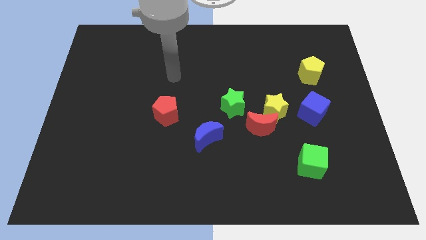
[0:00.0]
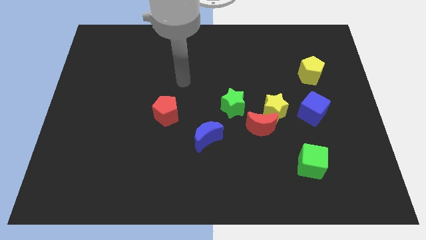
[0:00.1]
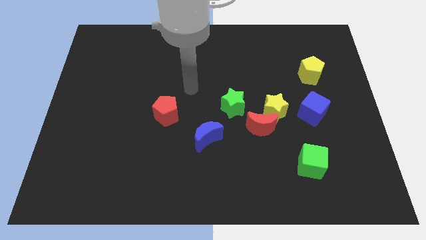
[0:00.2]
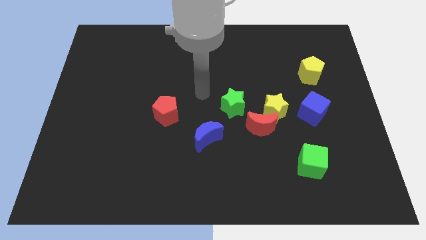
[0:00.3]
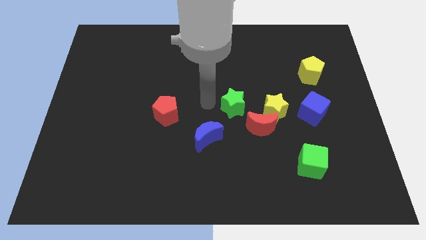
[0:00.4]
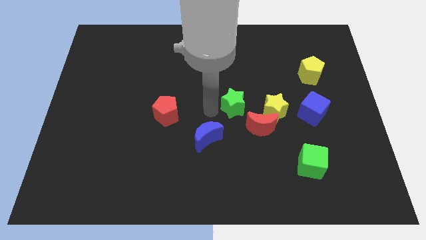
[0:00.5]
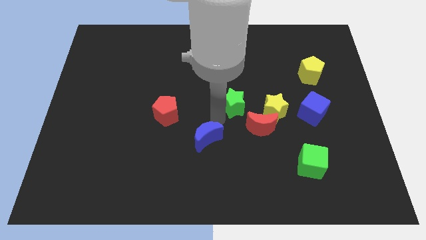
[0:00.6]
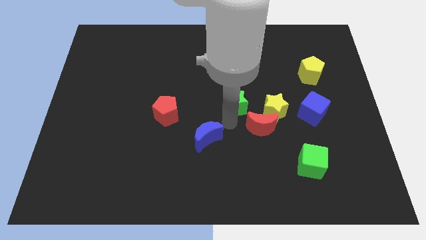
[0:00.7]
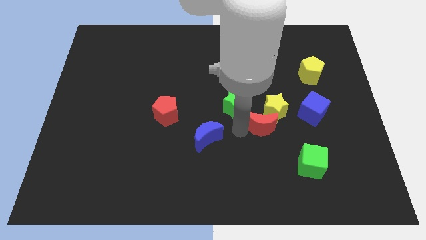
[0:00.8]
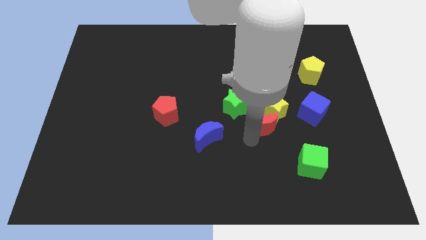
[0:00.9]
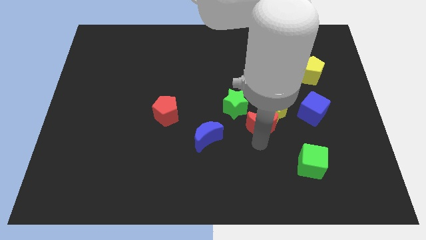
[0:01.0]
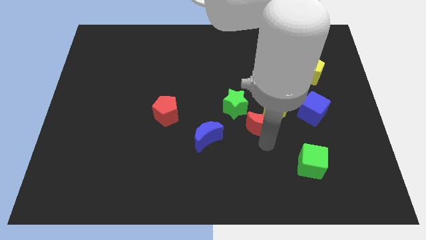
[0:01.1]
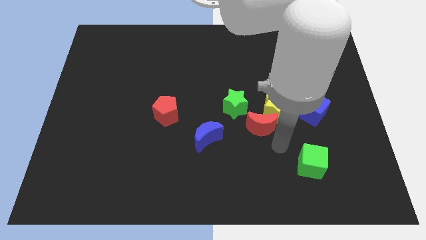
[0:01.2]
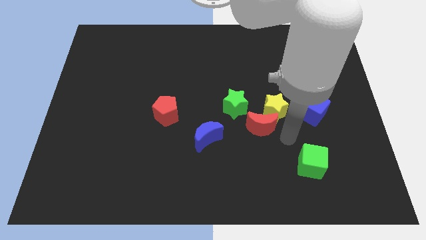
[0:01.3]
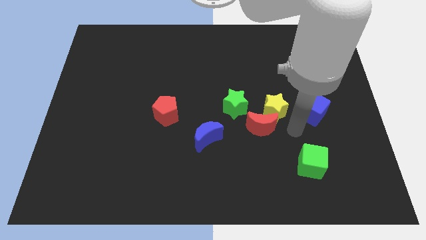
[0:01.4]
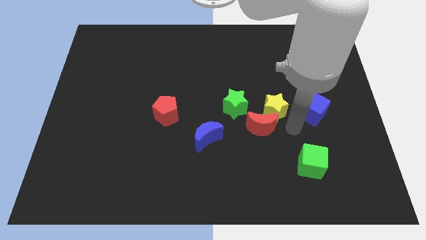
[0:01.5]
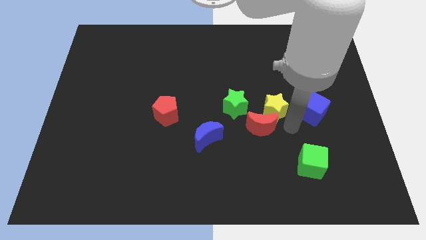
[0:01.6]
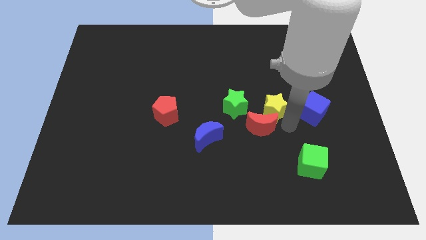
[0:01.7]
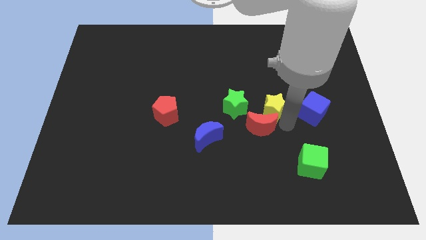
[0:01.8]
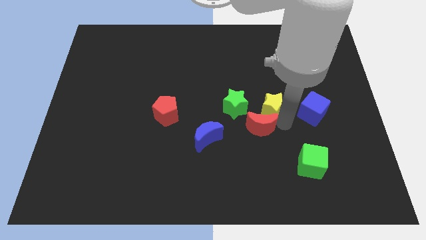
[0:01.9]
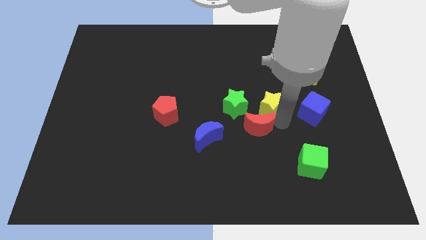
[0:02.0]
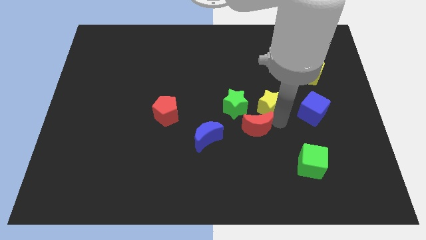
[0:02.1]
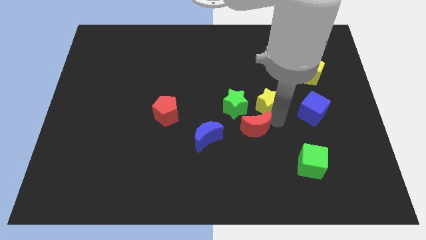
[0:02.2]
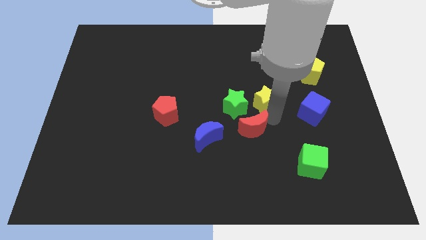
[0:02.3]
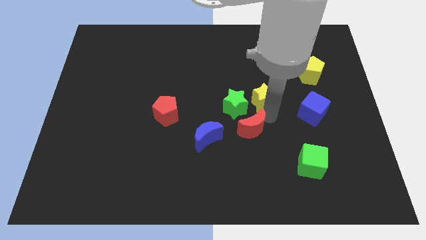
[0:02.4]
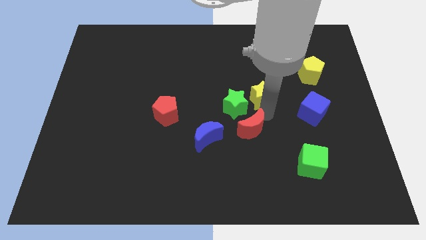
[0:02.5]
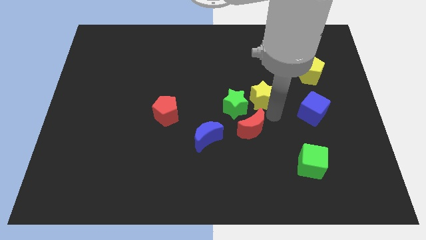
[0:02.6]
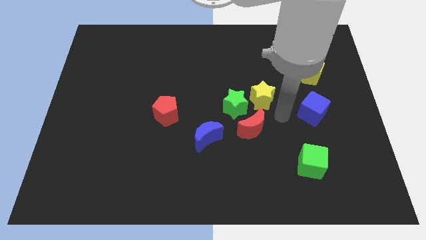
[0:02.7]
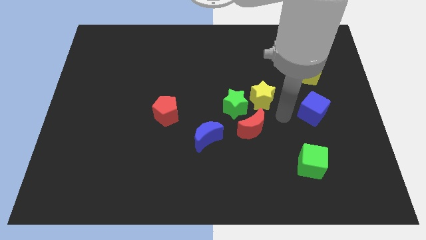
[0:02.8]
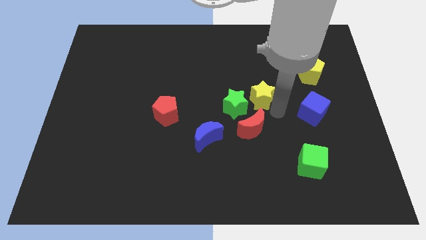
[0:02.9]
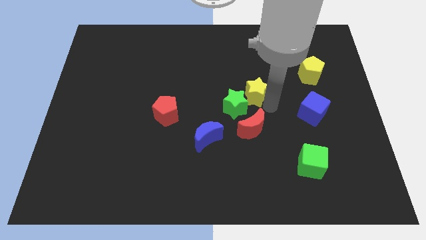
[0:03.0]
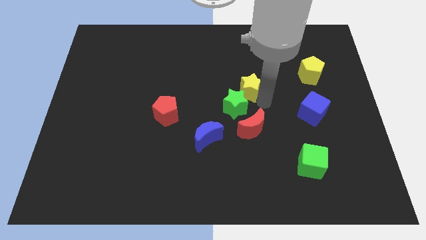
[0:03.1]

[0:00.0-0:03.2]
slide the yellow star upwards and to the left a little bit

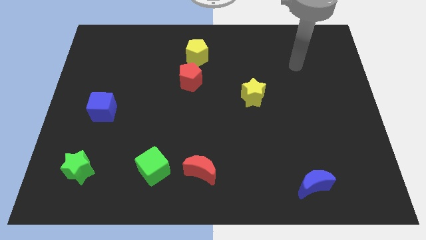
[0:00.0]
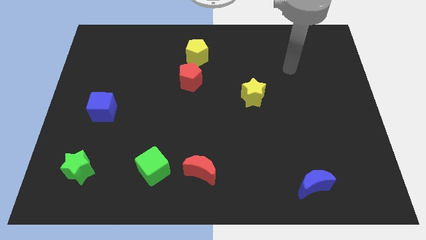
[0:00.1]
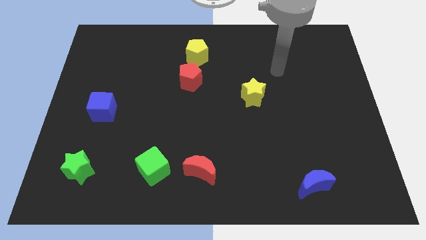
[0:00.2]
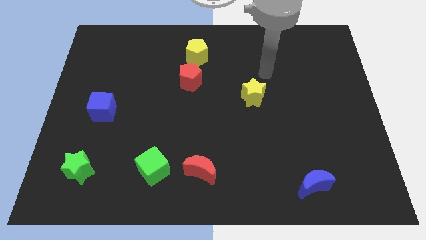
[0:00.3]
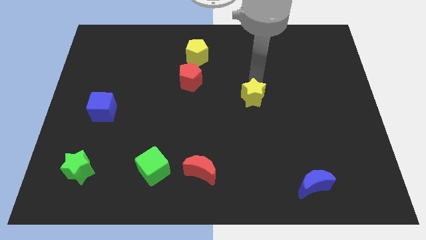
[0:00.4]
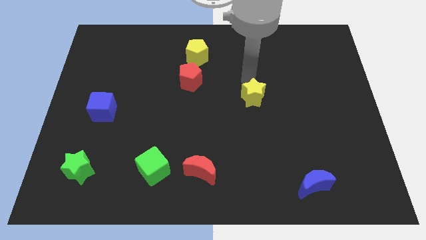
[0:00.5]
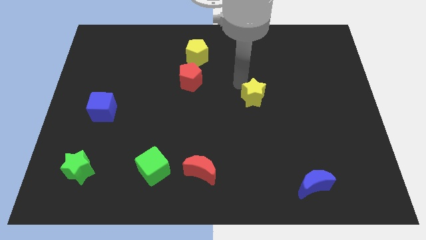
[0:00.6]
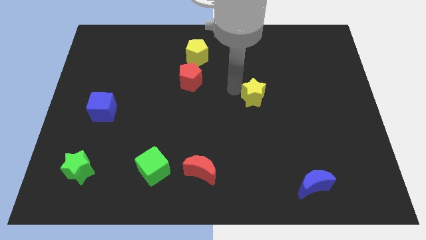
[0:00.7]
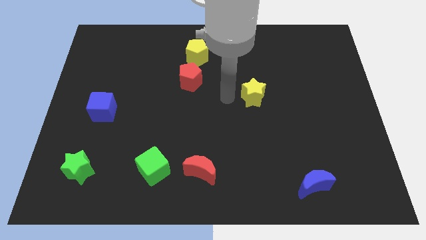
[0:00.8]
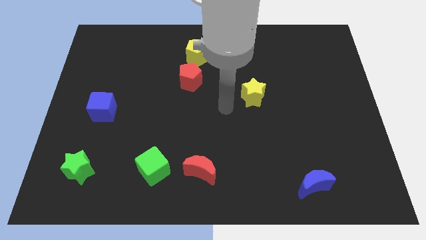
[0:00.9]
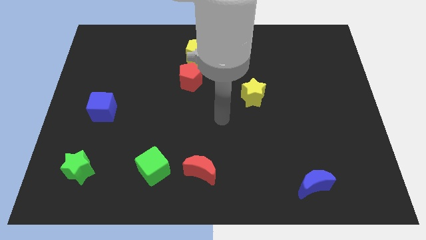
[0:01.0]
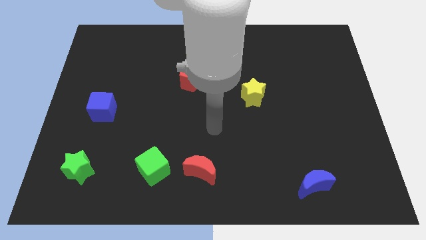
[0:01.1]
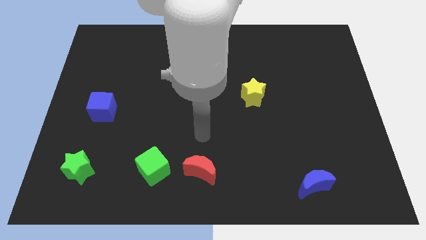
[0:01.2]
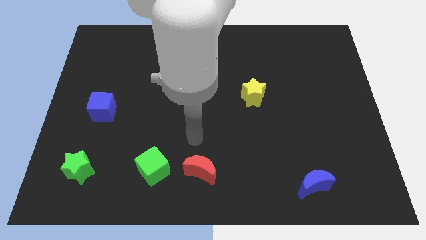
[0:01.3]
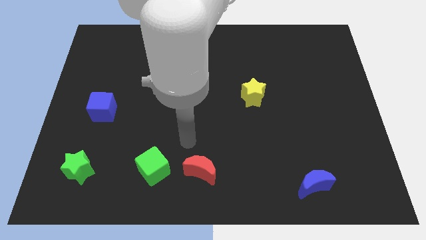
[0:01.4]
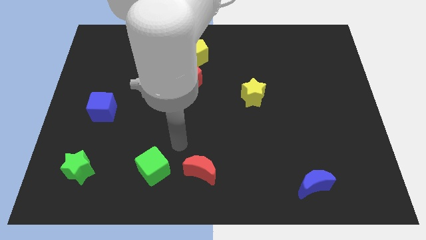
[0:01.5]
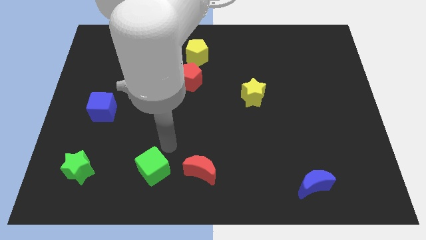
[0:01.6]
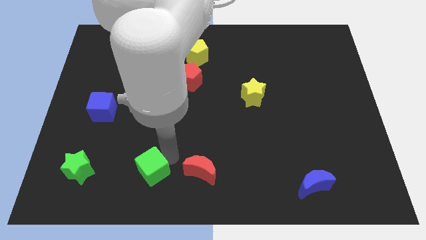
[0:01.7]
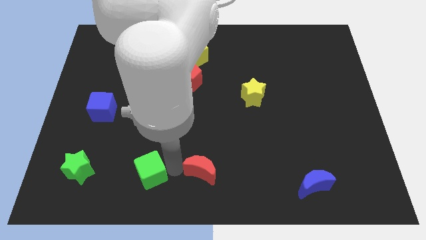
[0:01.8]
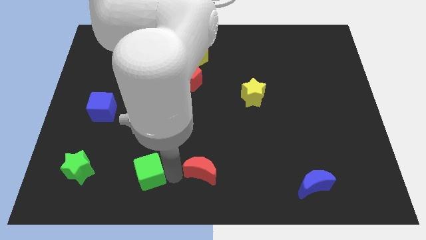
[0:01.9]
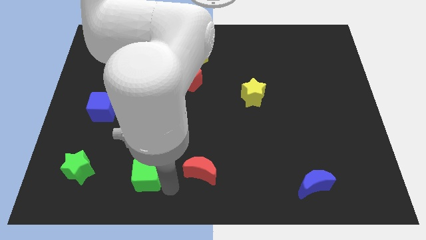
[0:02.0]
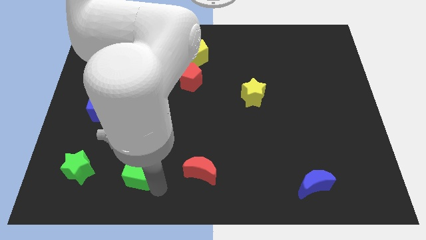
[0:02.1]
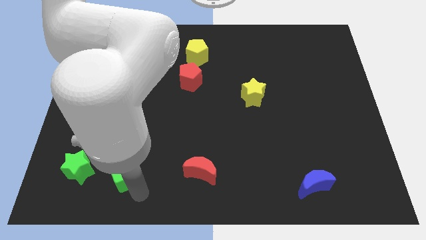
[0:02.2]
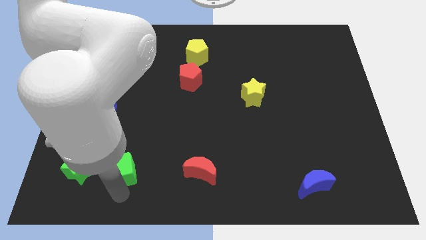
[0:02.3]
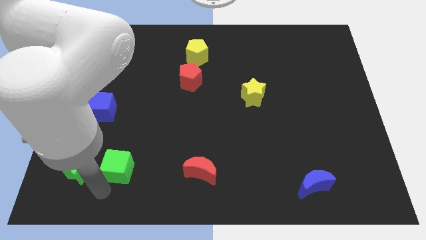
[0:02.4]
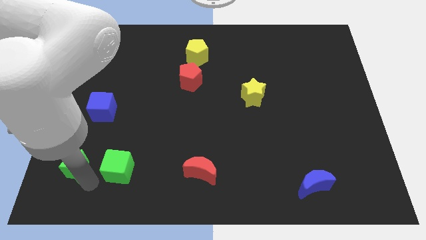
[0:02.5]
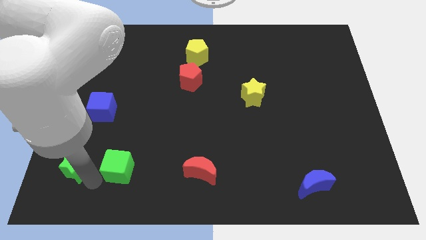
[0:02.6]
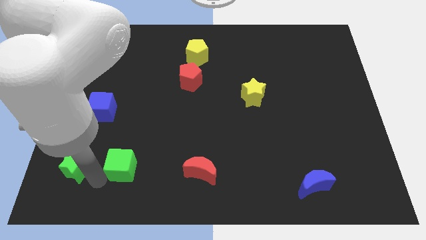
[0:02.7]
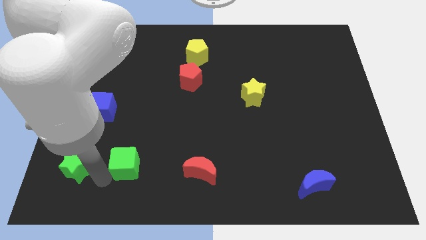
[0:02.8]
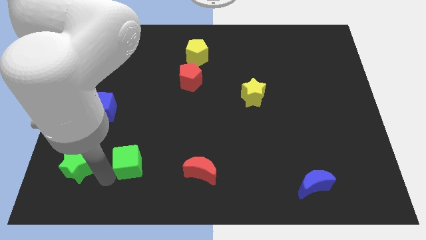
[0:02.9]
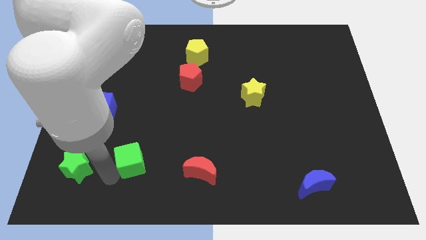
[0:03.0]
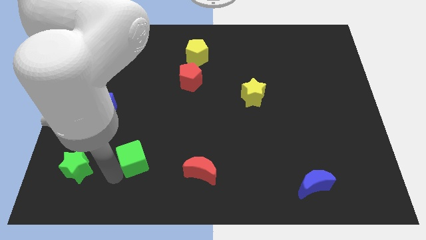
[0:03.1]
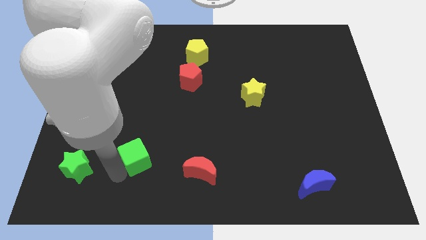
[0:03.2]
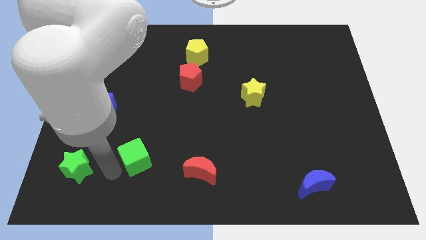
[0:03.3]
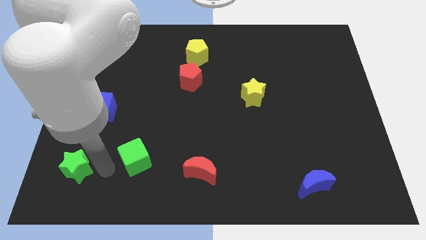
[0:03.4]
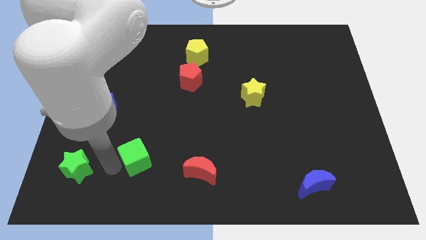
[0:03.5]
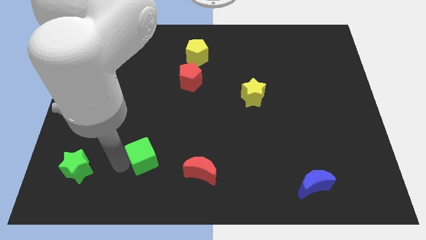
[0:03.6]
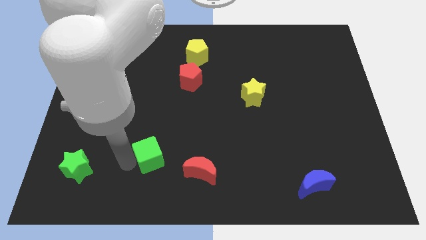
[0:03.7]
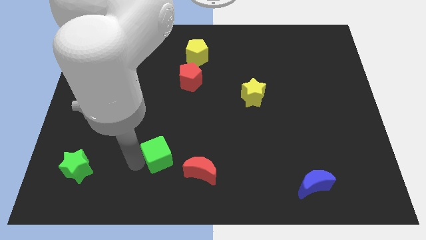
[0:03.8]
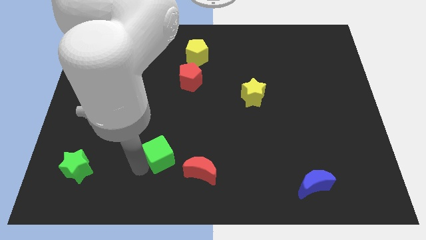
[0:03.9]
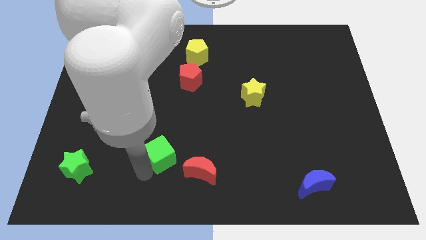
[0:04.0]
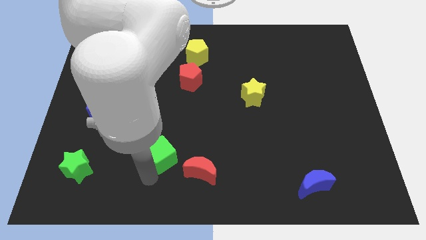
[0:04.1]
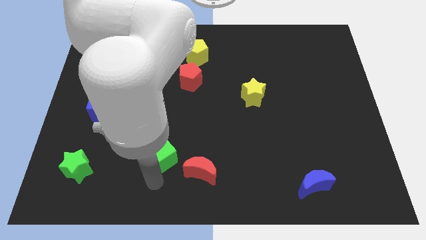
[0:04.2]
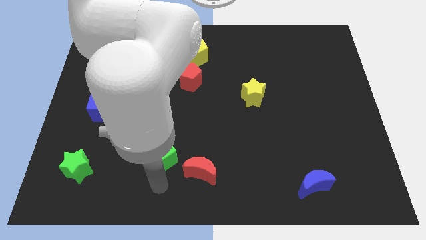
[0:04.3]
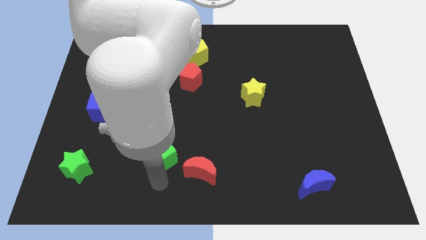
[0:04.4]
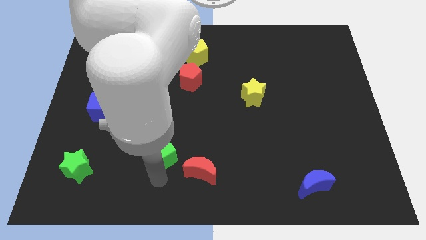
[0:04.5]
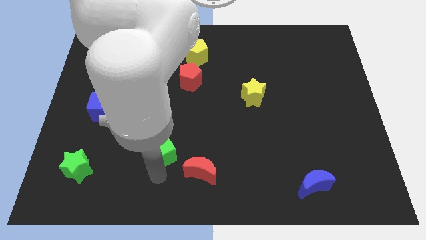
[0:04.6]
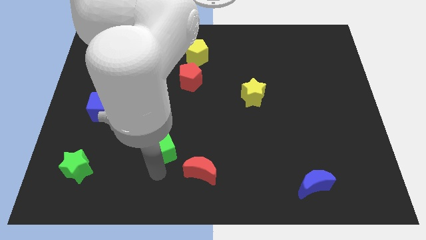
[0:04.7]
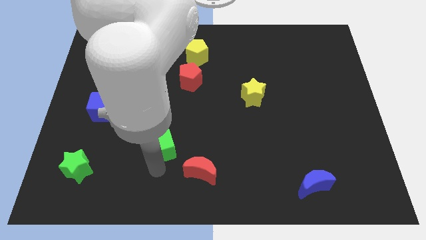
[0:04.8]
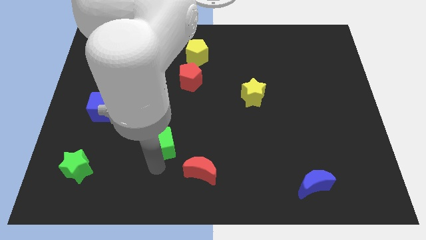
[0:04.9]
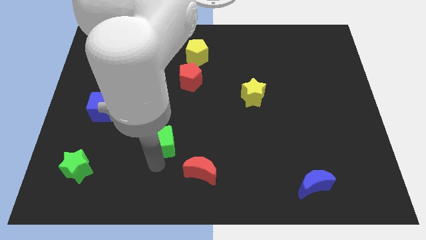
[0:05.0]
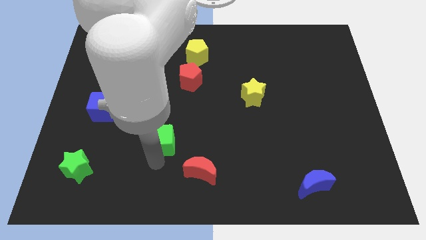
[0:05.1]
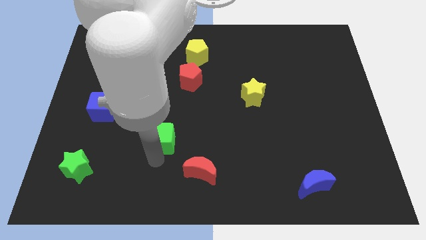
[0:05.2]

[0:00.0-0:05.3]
slide the green cube upwards slightly
